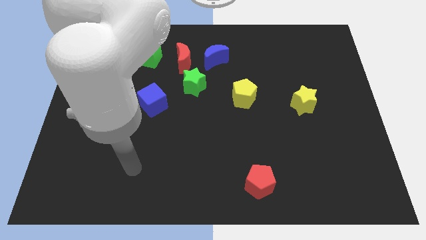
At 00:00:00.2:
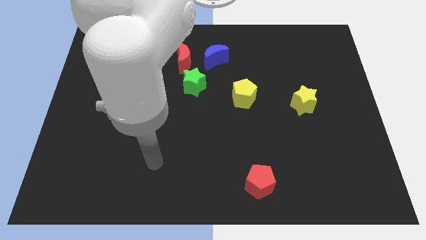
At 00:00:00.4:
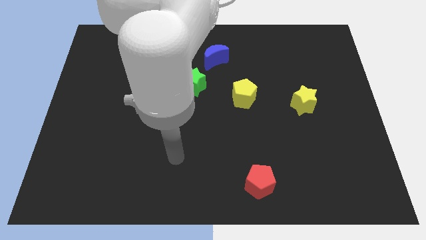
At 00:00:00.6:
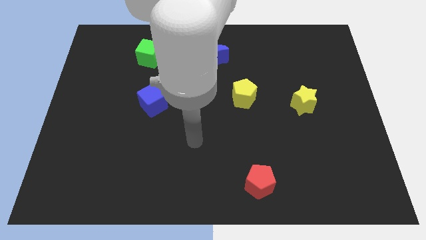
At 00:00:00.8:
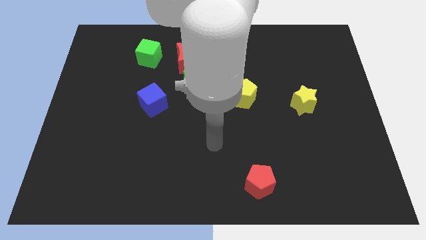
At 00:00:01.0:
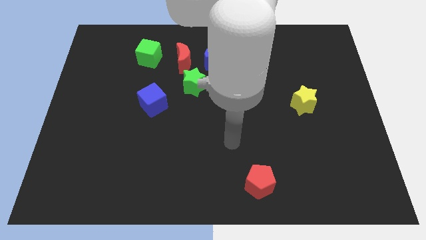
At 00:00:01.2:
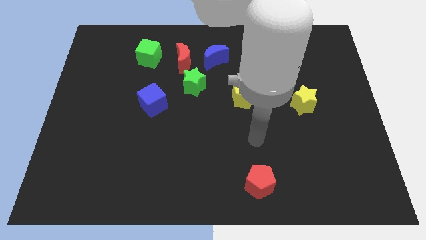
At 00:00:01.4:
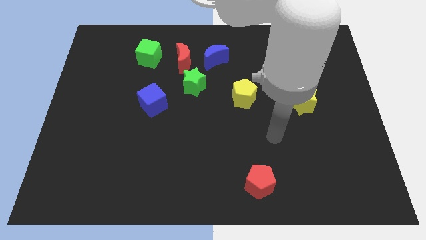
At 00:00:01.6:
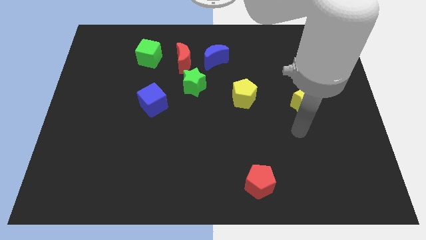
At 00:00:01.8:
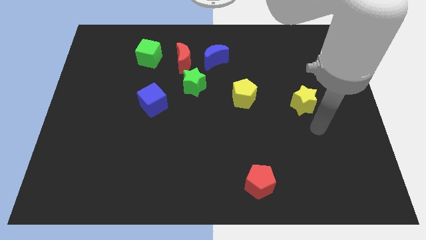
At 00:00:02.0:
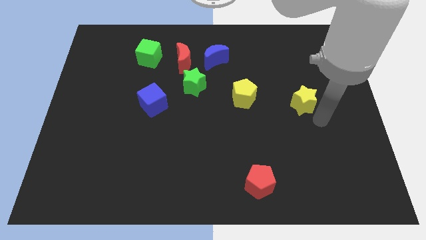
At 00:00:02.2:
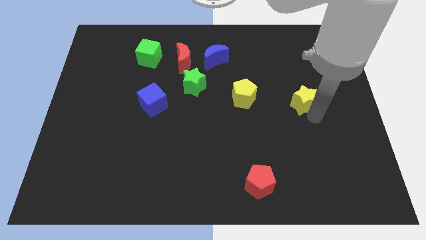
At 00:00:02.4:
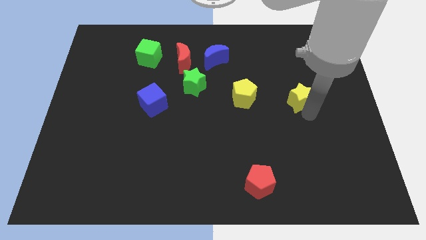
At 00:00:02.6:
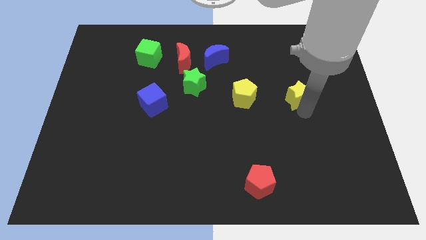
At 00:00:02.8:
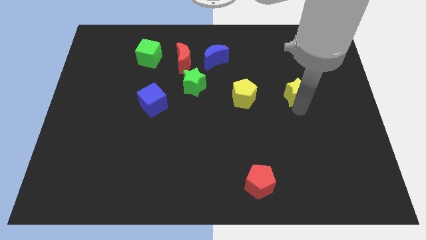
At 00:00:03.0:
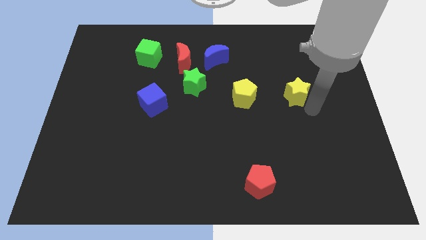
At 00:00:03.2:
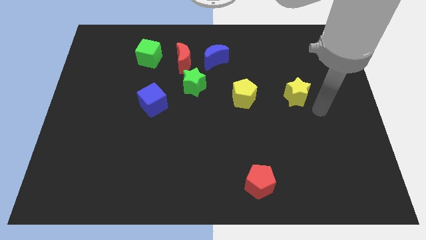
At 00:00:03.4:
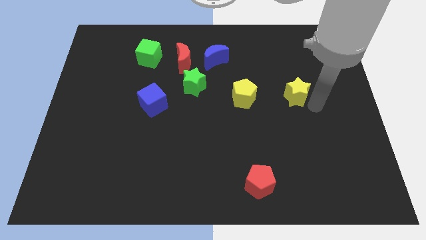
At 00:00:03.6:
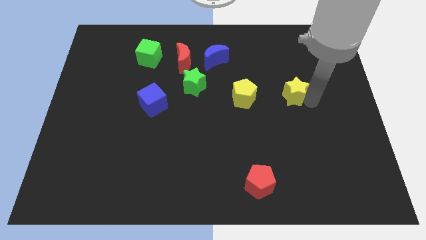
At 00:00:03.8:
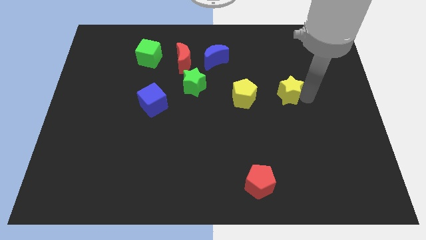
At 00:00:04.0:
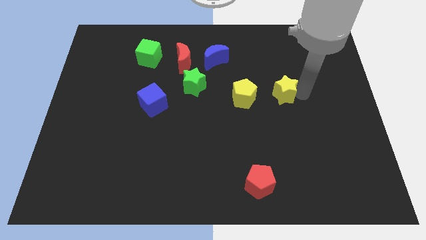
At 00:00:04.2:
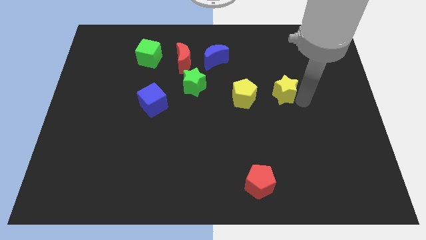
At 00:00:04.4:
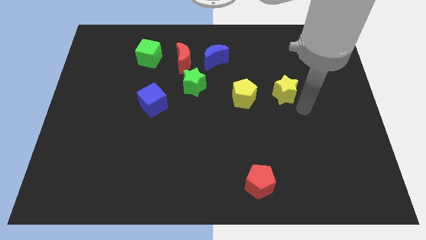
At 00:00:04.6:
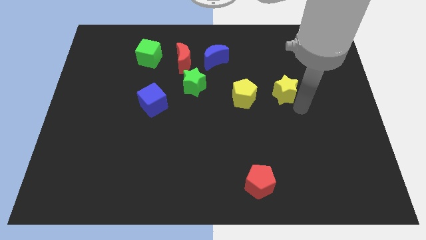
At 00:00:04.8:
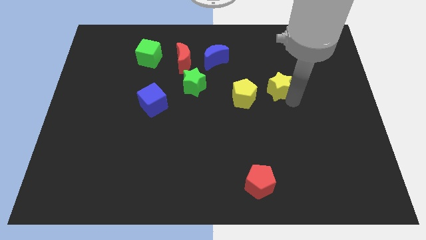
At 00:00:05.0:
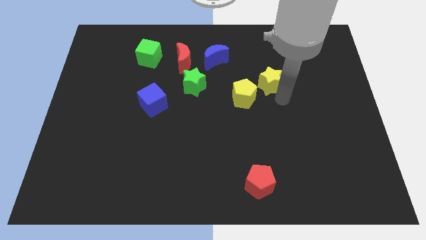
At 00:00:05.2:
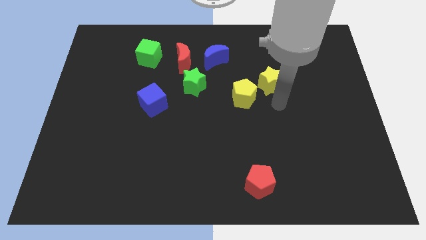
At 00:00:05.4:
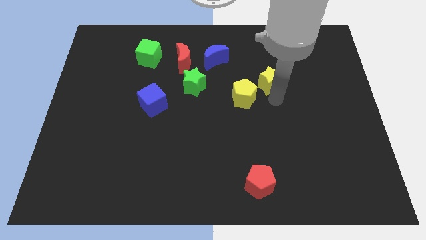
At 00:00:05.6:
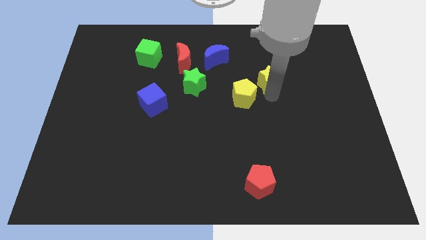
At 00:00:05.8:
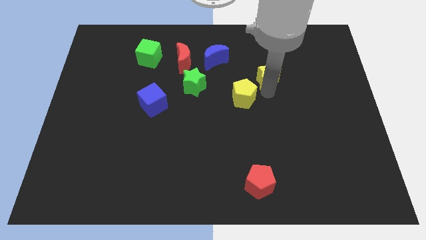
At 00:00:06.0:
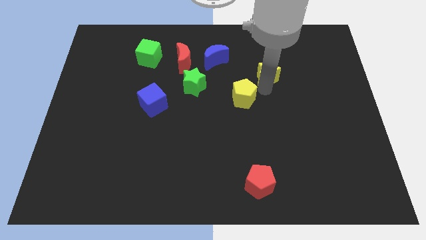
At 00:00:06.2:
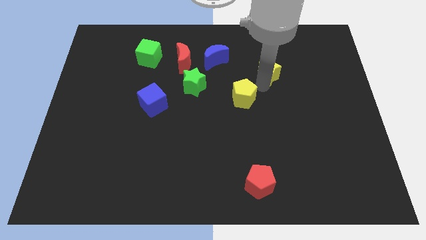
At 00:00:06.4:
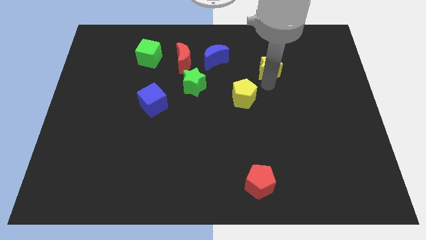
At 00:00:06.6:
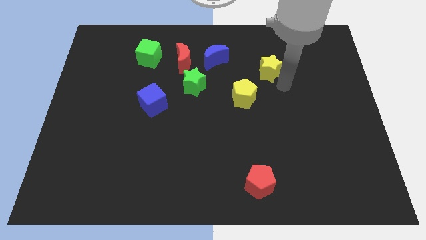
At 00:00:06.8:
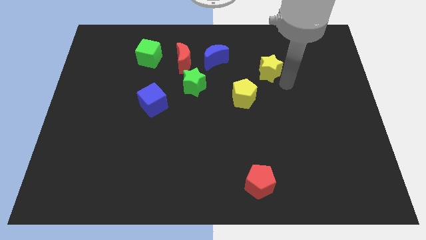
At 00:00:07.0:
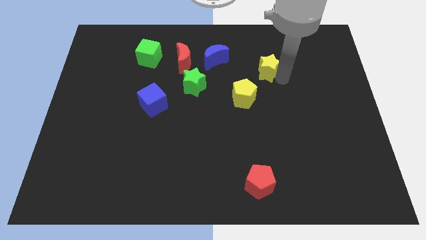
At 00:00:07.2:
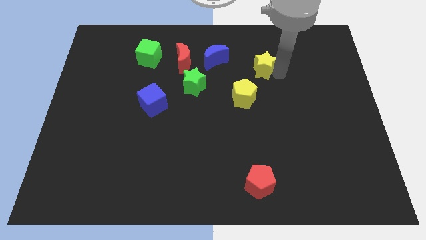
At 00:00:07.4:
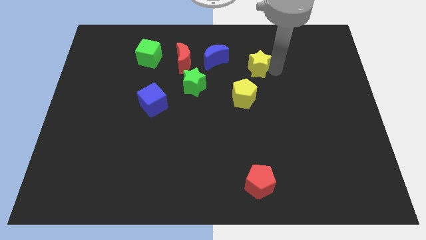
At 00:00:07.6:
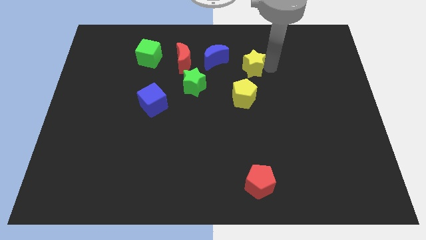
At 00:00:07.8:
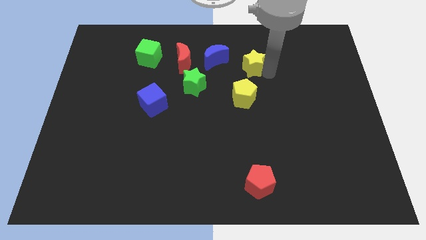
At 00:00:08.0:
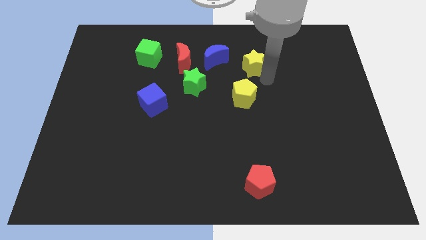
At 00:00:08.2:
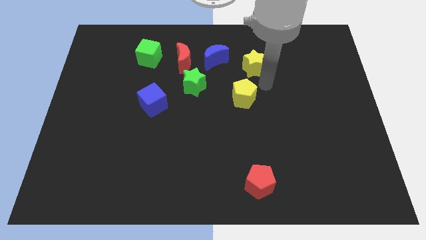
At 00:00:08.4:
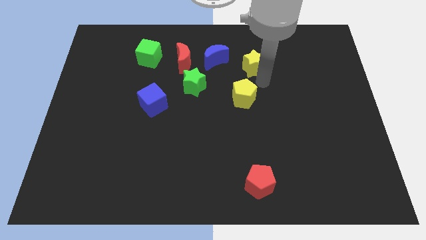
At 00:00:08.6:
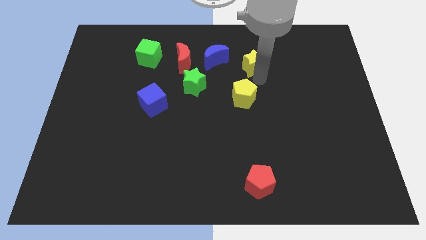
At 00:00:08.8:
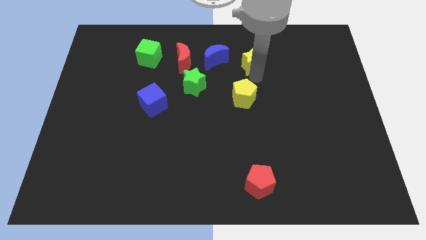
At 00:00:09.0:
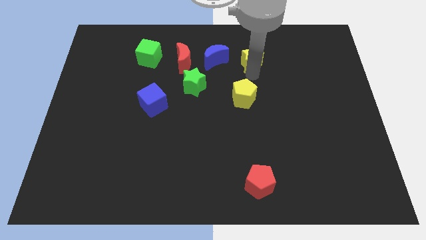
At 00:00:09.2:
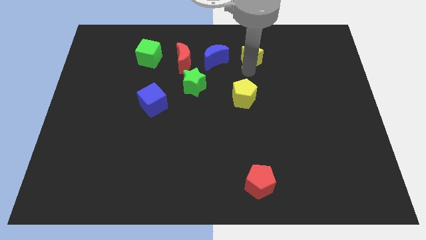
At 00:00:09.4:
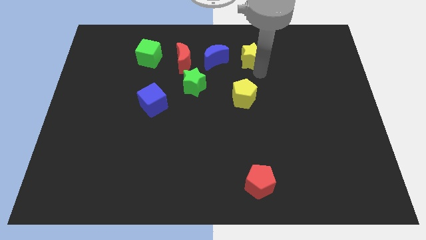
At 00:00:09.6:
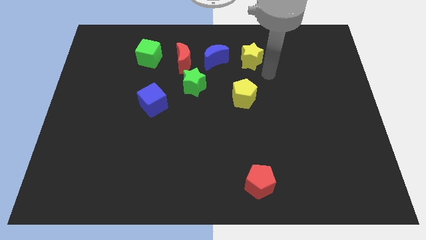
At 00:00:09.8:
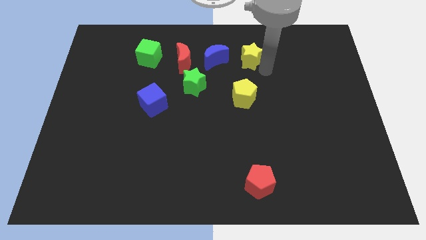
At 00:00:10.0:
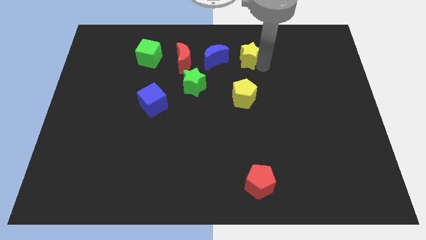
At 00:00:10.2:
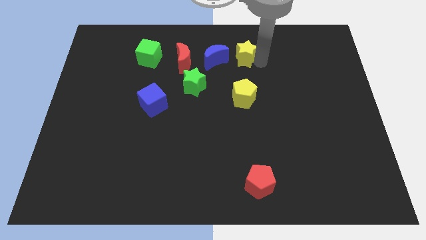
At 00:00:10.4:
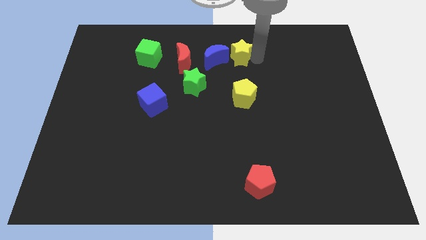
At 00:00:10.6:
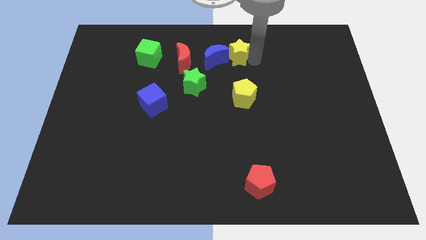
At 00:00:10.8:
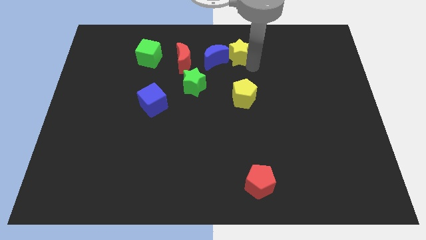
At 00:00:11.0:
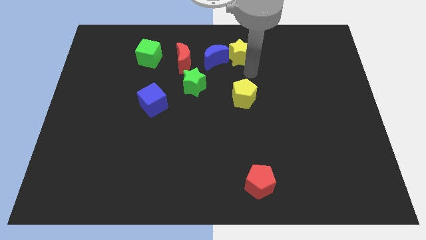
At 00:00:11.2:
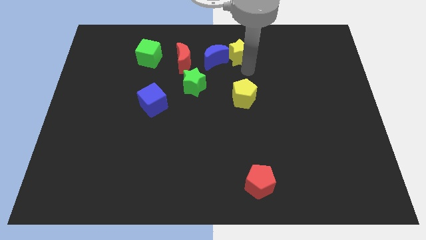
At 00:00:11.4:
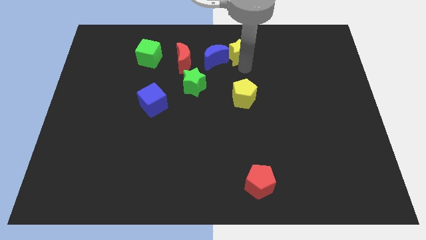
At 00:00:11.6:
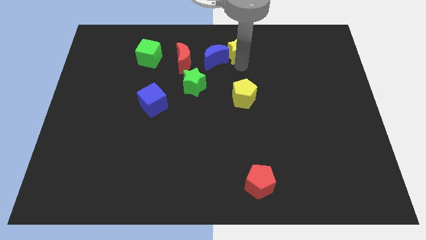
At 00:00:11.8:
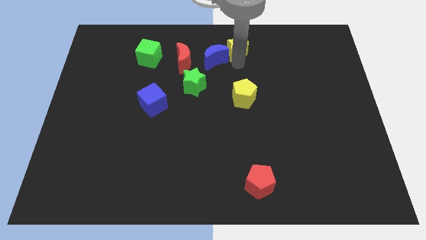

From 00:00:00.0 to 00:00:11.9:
slide the yellow star to the towards your base
